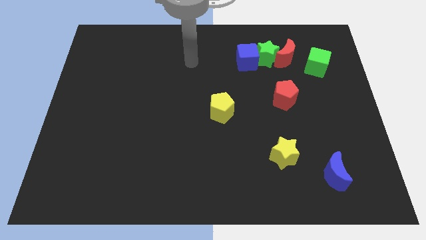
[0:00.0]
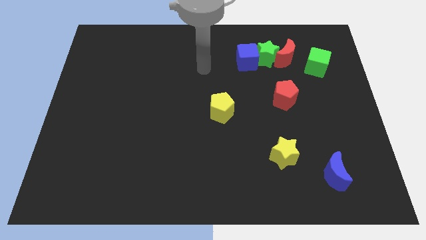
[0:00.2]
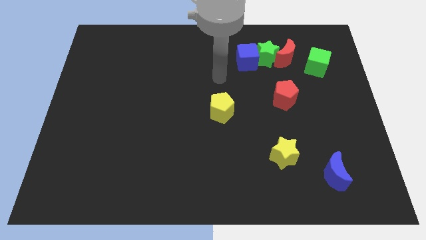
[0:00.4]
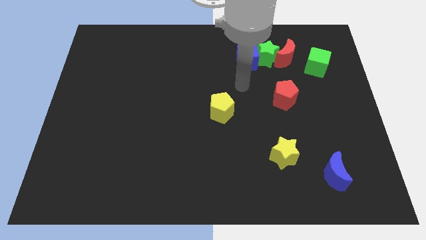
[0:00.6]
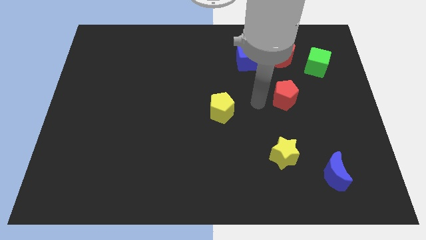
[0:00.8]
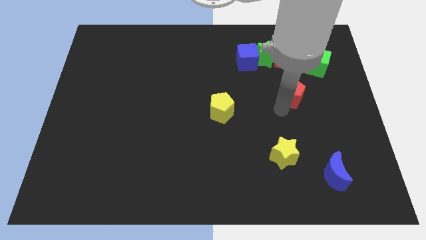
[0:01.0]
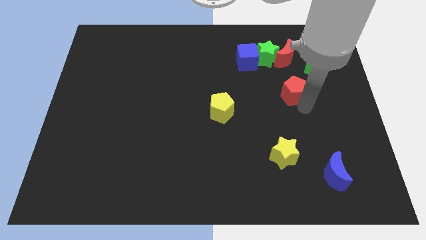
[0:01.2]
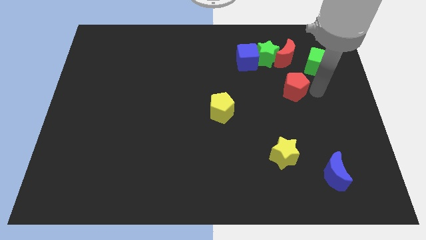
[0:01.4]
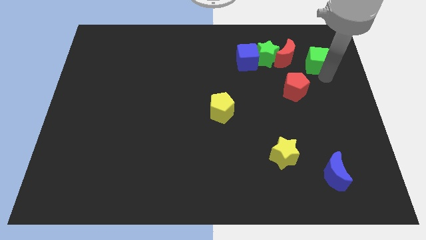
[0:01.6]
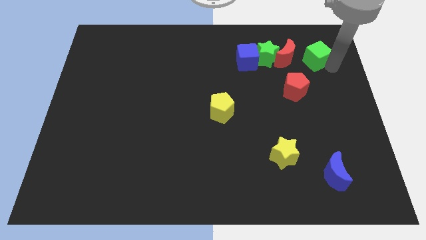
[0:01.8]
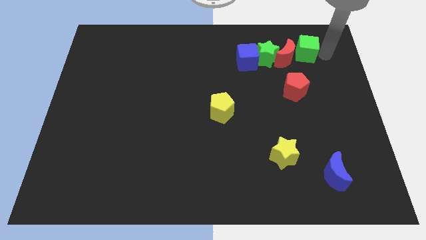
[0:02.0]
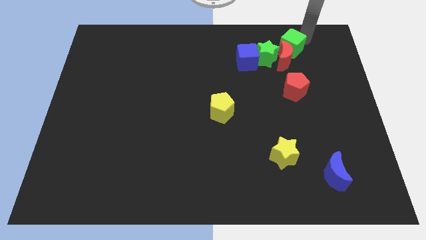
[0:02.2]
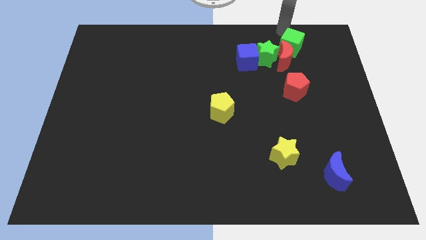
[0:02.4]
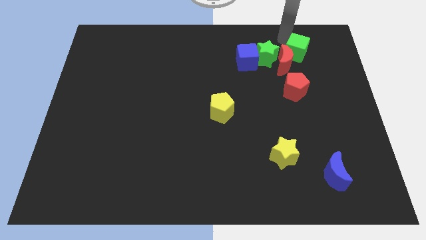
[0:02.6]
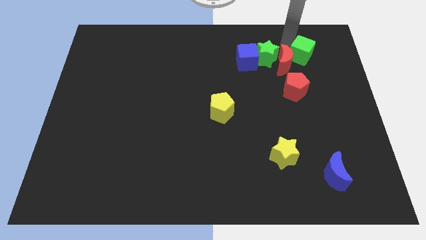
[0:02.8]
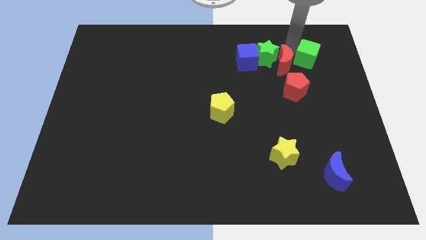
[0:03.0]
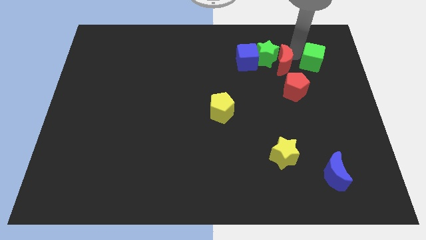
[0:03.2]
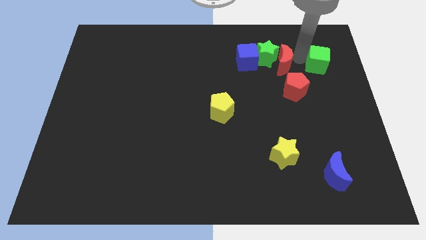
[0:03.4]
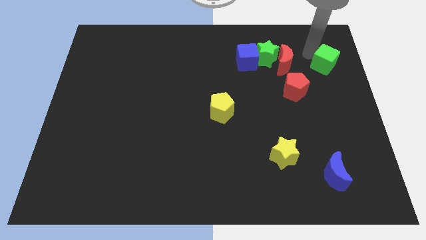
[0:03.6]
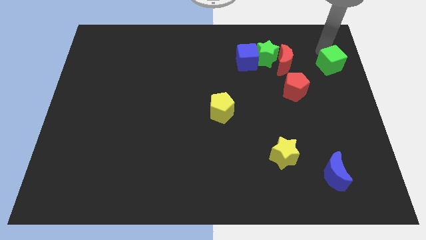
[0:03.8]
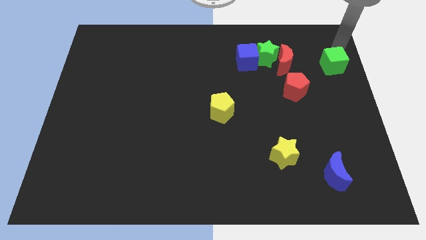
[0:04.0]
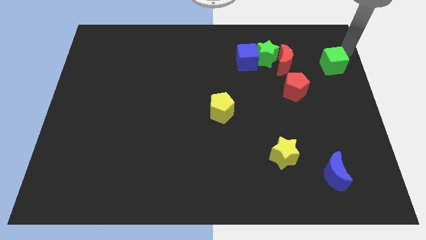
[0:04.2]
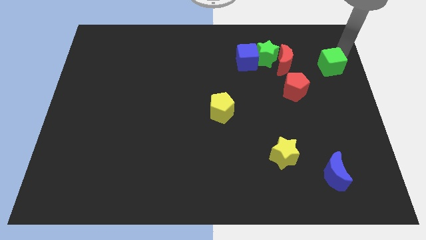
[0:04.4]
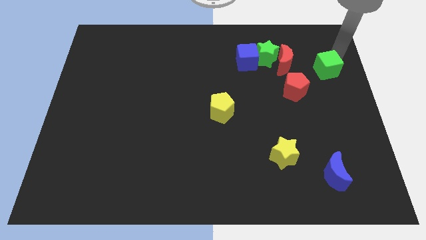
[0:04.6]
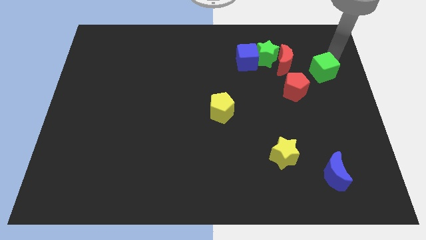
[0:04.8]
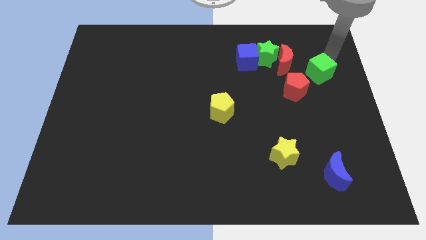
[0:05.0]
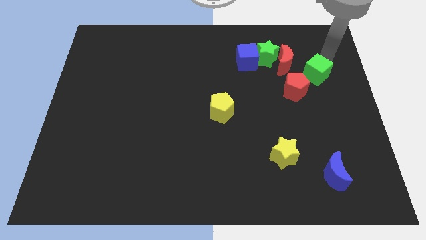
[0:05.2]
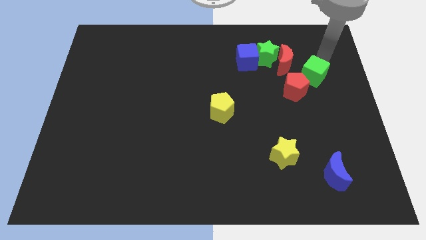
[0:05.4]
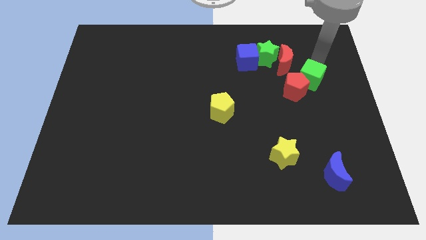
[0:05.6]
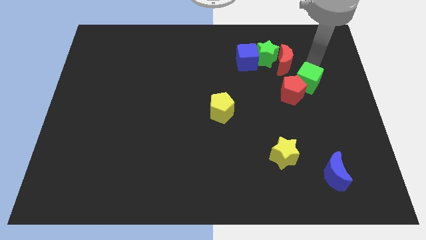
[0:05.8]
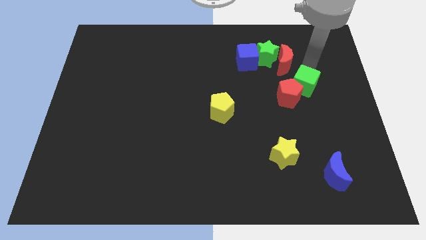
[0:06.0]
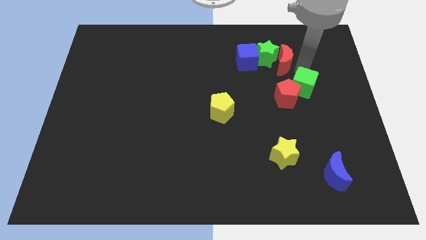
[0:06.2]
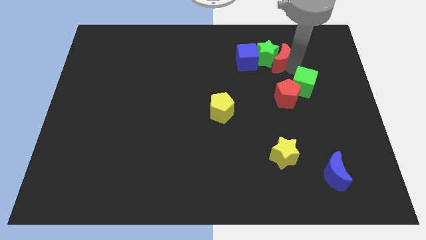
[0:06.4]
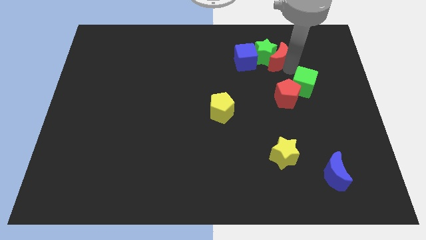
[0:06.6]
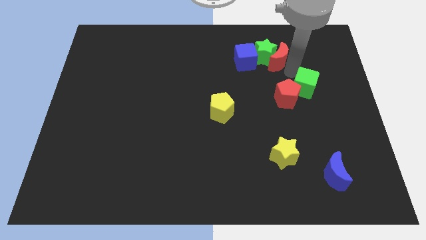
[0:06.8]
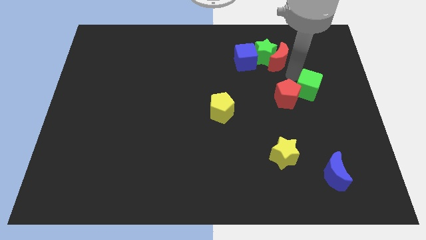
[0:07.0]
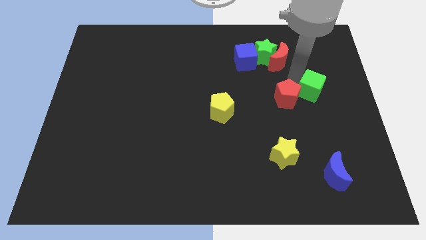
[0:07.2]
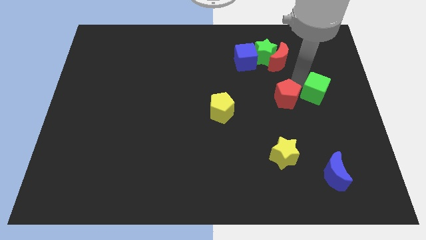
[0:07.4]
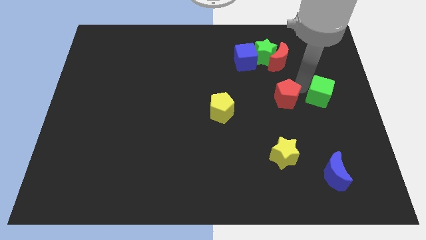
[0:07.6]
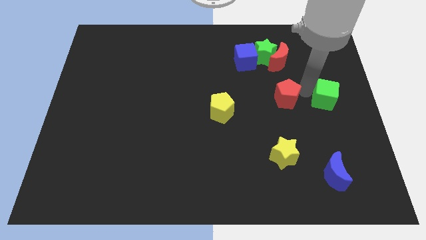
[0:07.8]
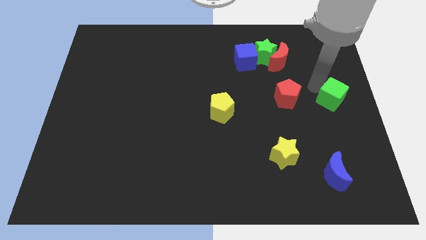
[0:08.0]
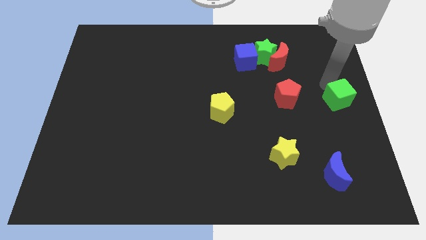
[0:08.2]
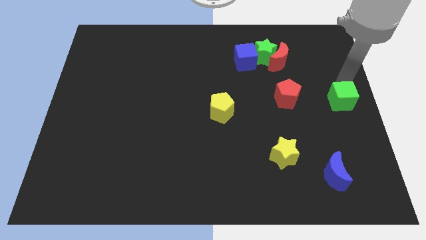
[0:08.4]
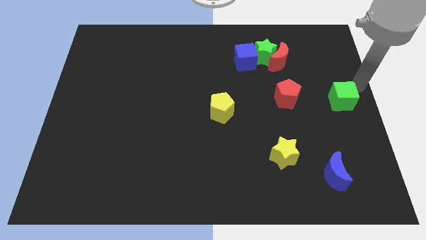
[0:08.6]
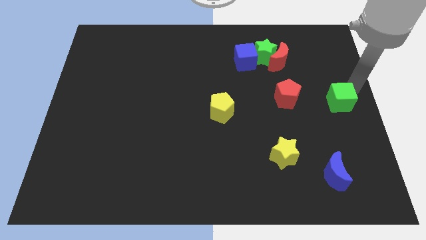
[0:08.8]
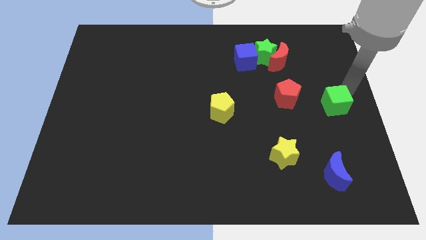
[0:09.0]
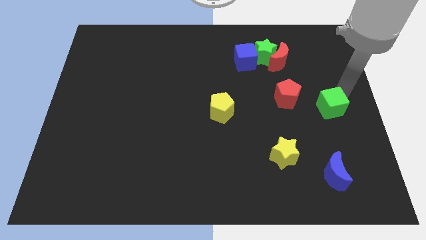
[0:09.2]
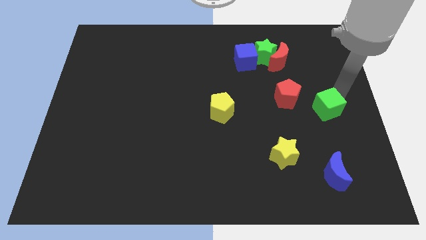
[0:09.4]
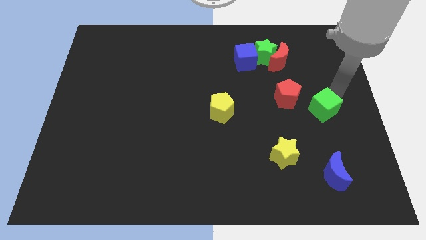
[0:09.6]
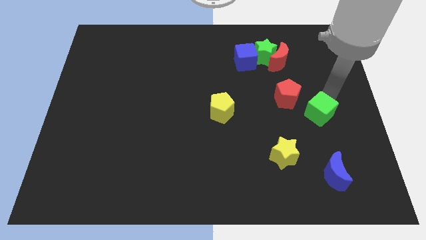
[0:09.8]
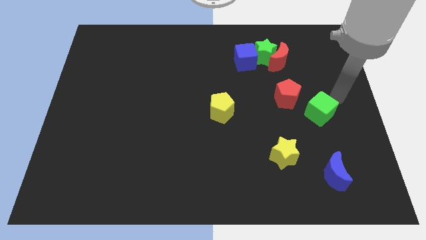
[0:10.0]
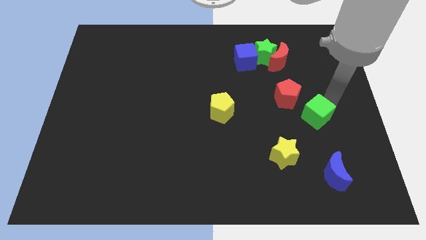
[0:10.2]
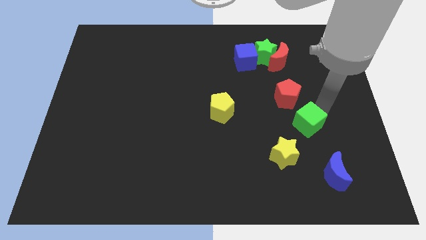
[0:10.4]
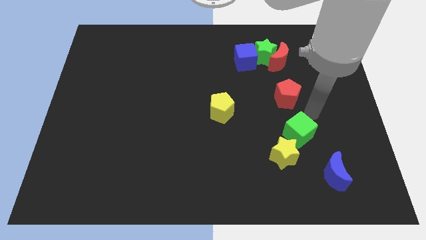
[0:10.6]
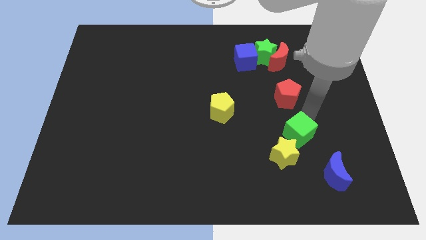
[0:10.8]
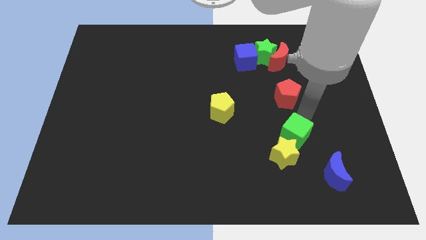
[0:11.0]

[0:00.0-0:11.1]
move the green cube close to the yellow star

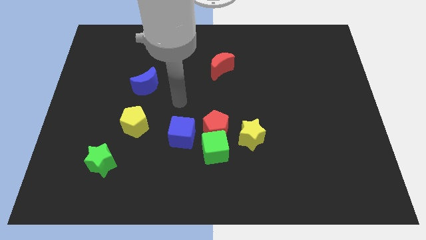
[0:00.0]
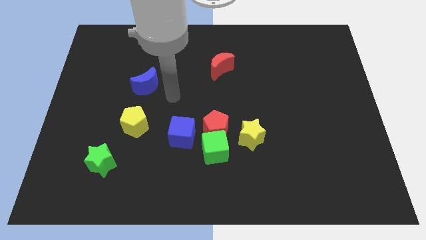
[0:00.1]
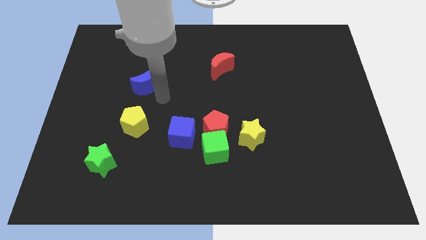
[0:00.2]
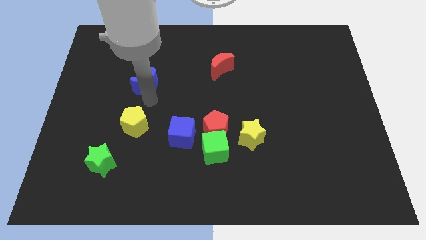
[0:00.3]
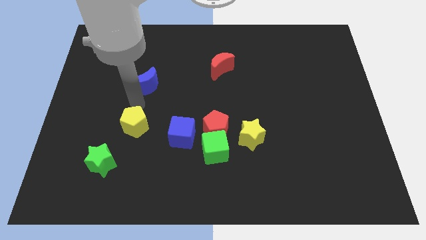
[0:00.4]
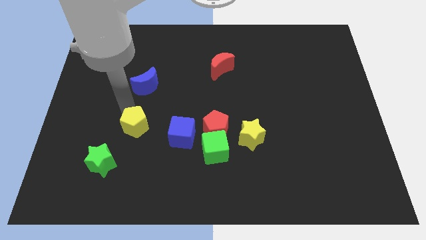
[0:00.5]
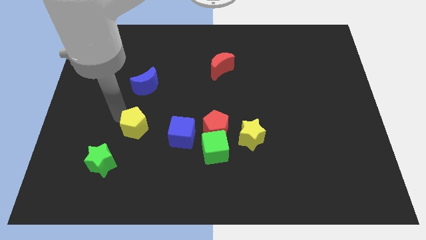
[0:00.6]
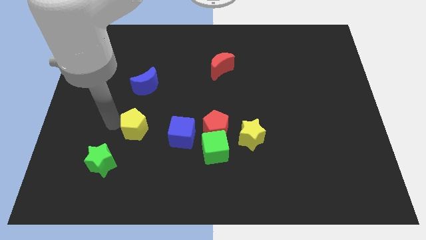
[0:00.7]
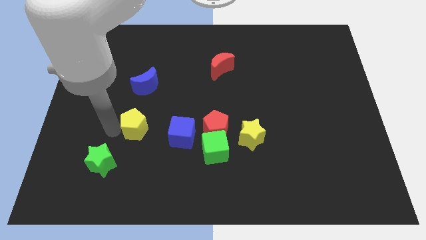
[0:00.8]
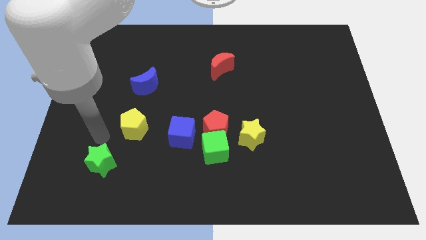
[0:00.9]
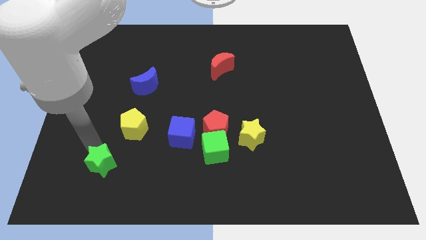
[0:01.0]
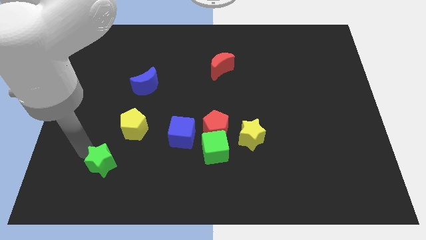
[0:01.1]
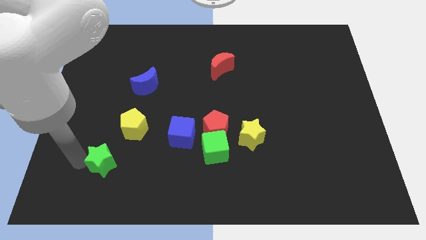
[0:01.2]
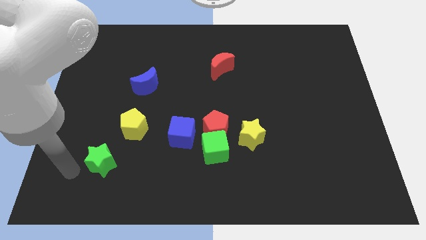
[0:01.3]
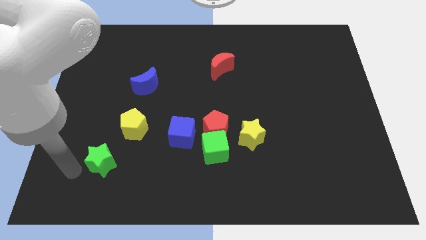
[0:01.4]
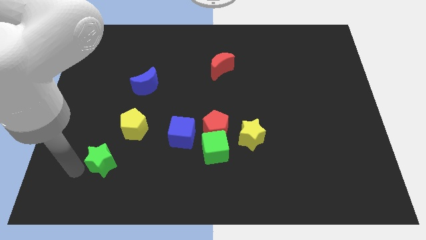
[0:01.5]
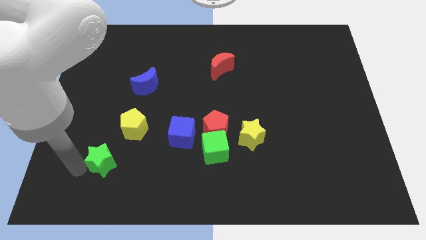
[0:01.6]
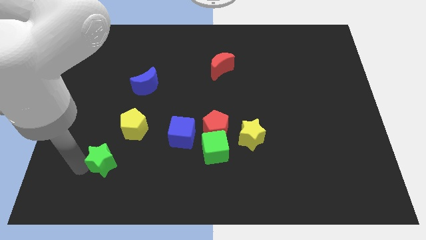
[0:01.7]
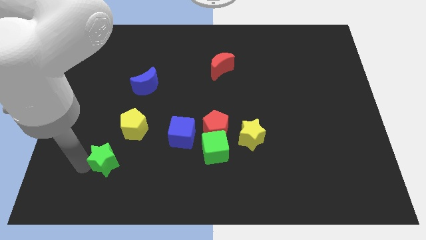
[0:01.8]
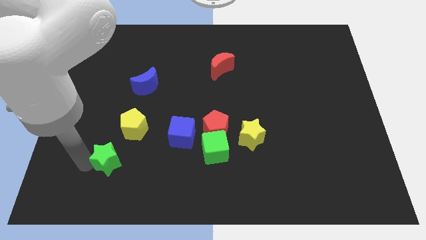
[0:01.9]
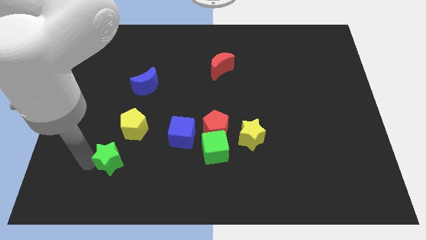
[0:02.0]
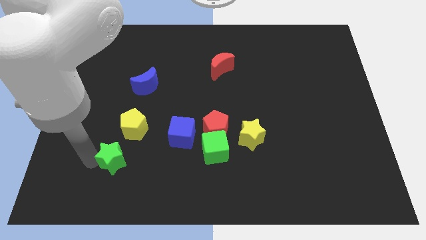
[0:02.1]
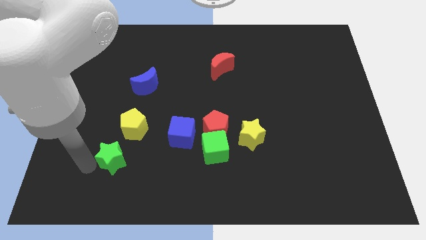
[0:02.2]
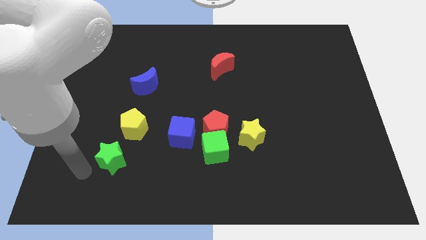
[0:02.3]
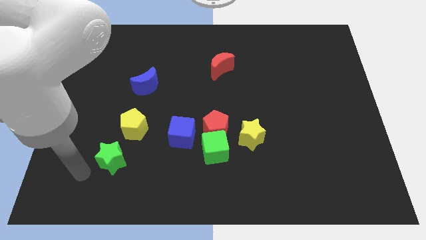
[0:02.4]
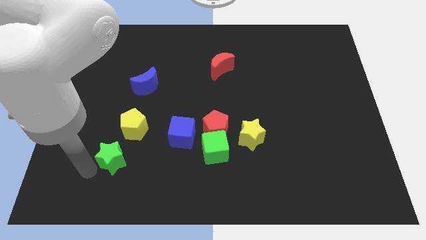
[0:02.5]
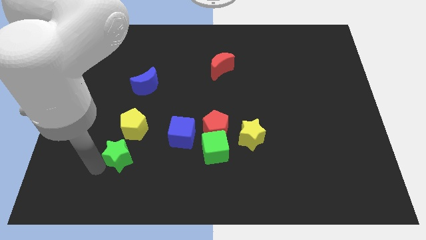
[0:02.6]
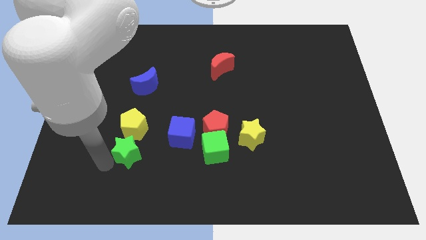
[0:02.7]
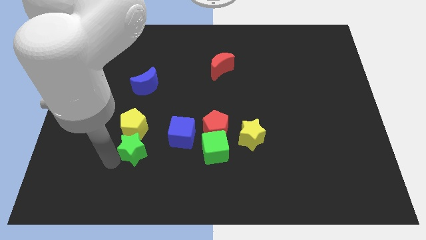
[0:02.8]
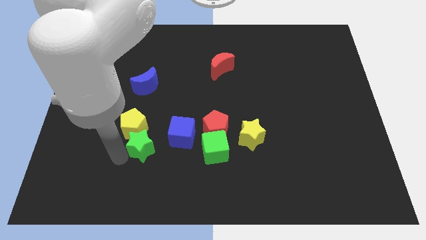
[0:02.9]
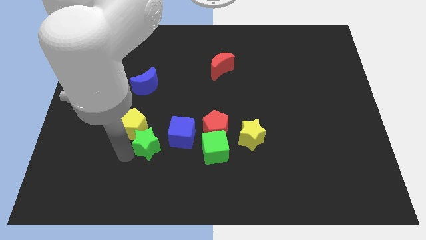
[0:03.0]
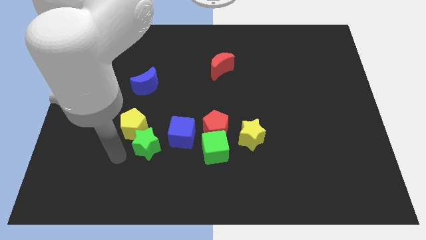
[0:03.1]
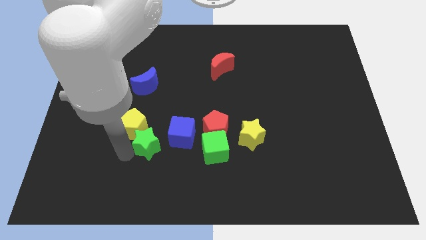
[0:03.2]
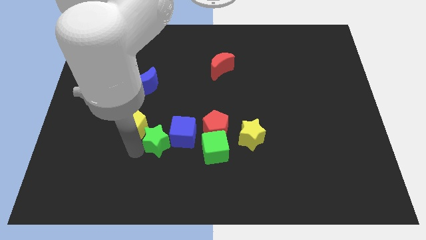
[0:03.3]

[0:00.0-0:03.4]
slide the green star next to the blue cube
